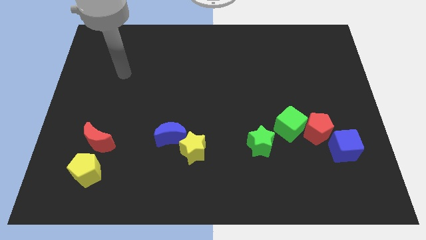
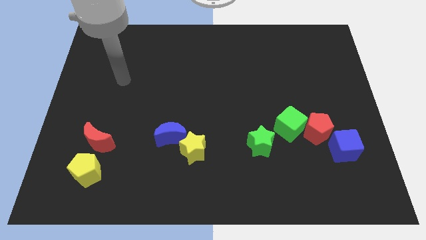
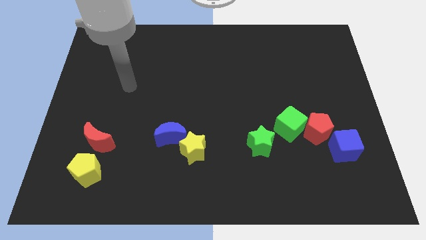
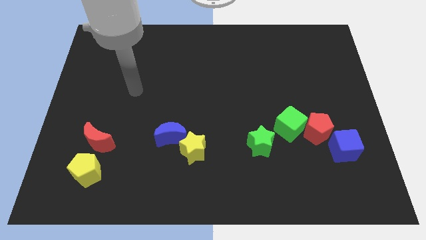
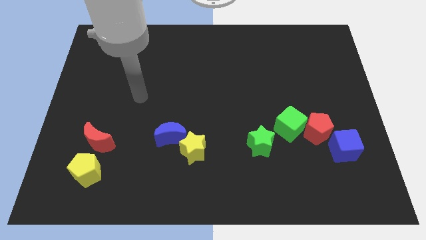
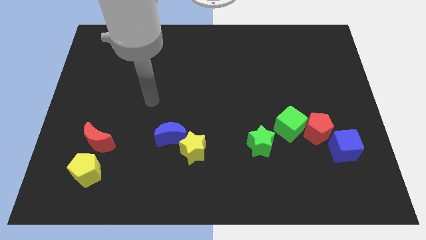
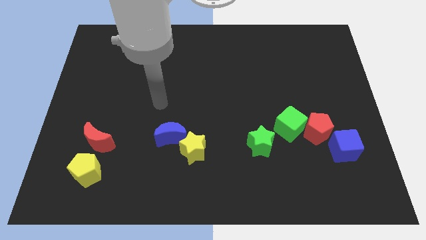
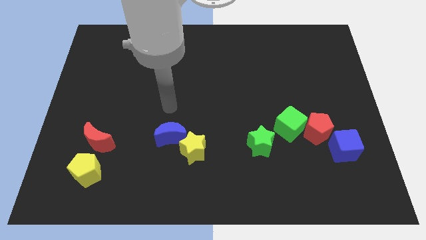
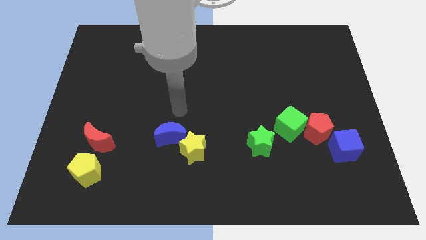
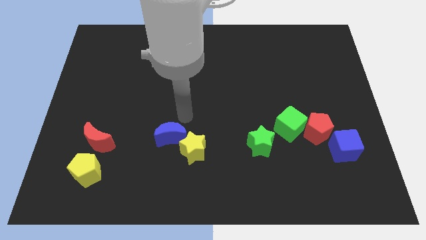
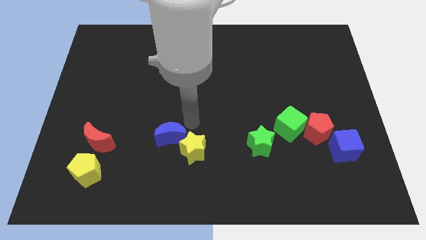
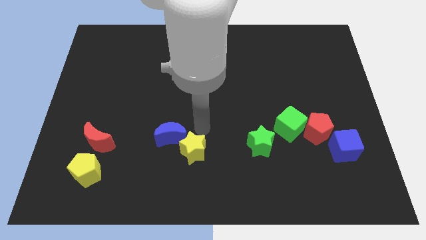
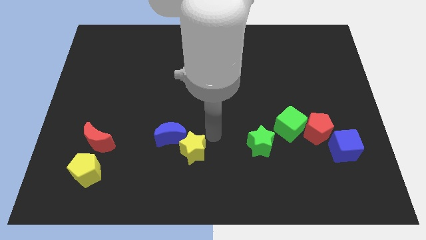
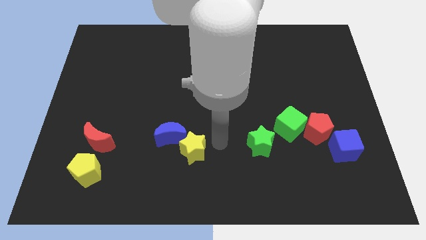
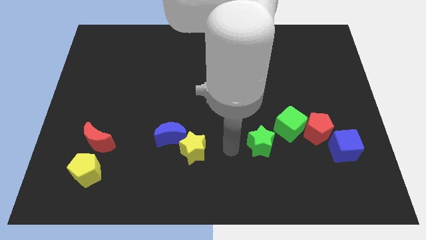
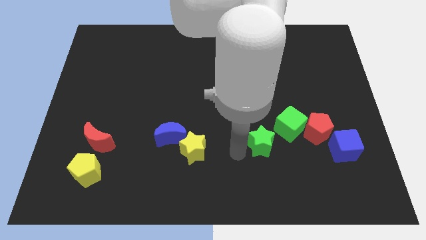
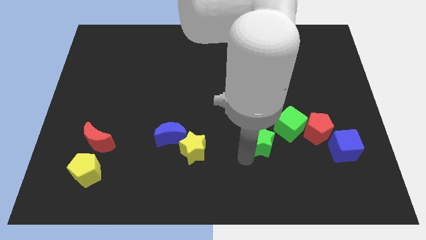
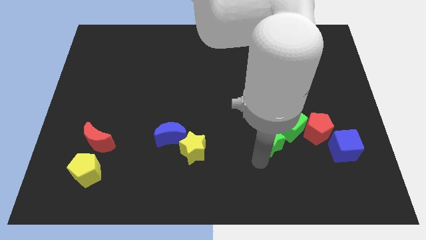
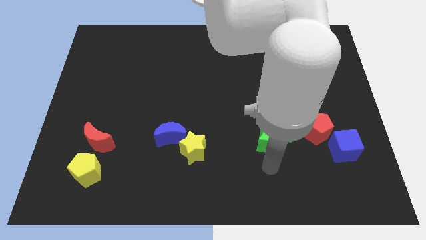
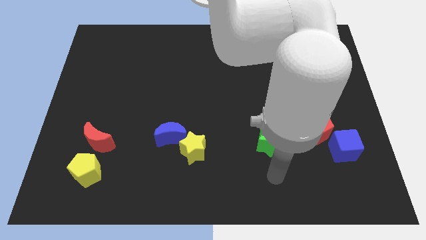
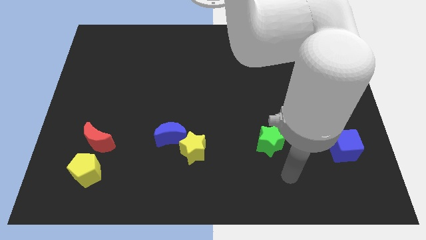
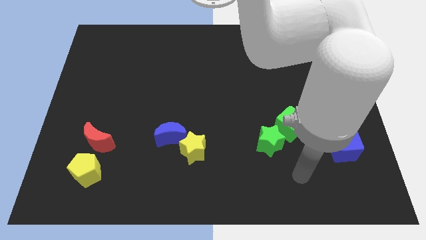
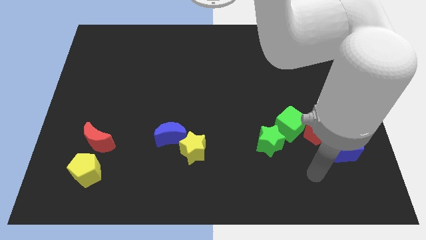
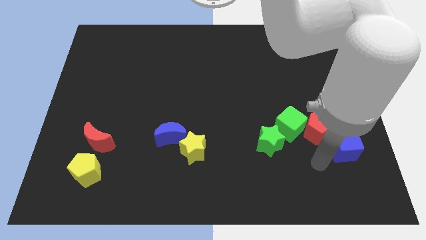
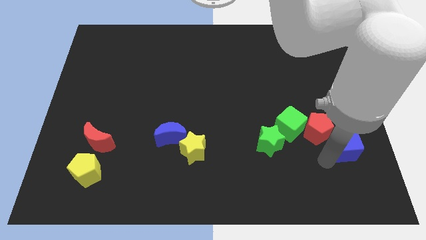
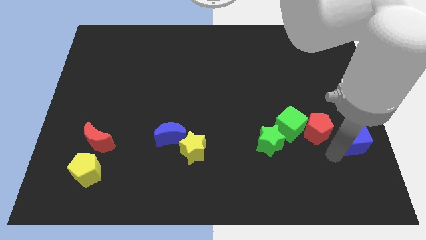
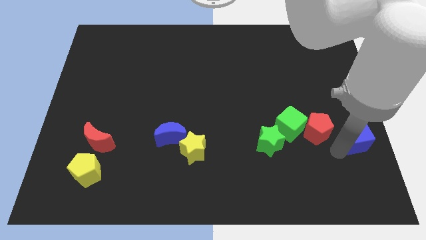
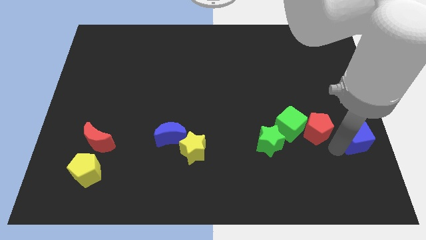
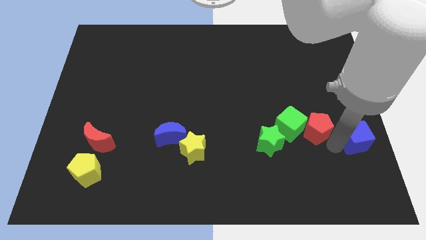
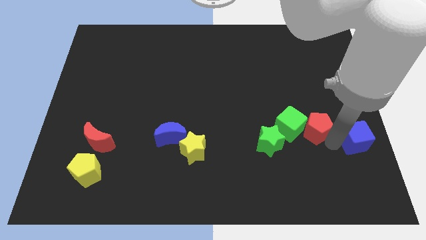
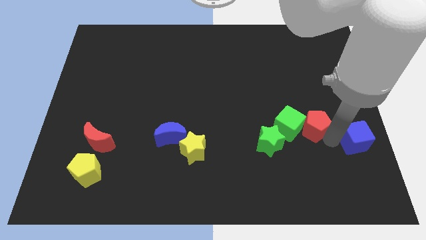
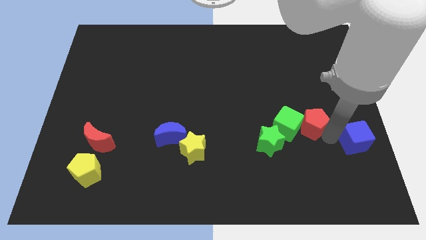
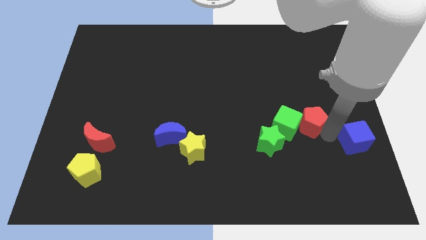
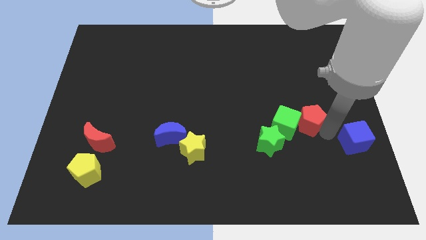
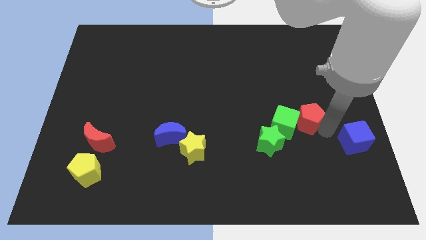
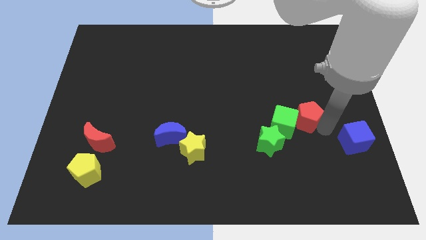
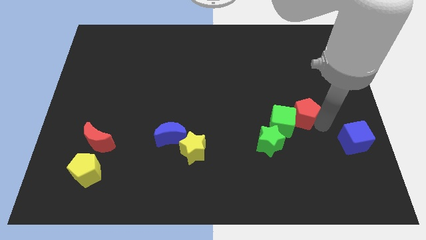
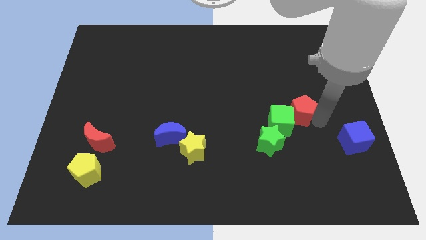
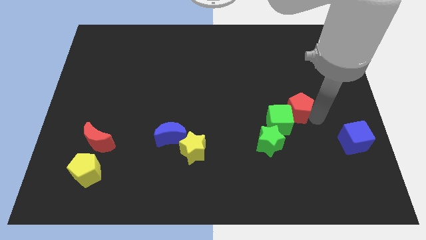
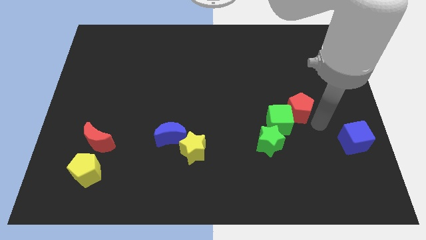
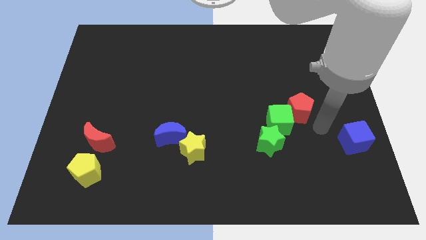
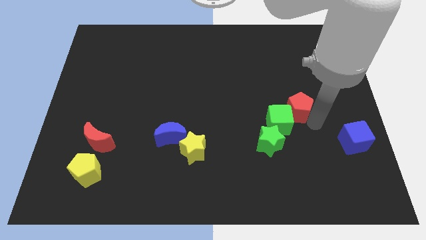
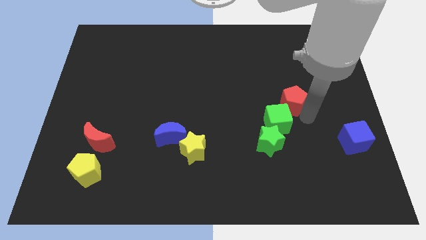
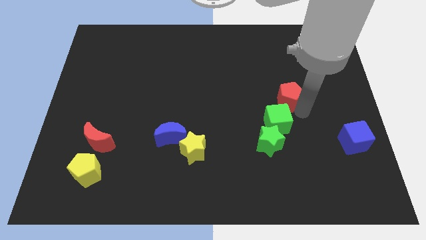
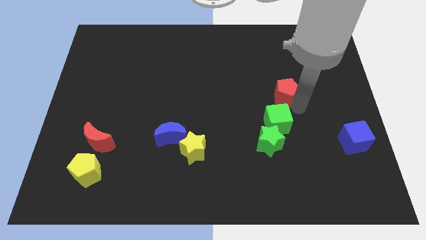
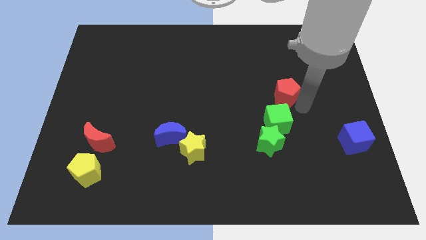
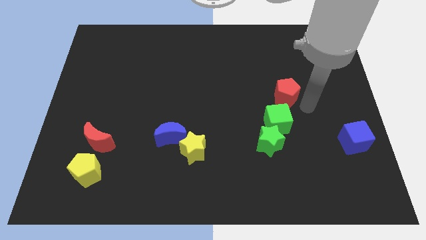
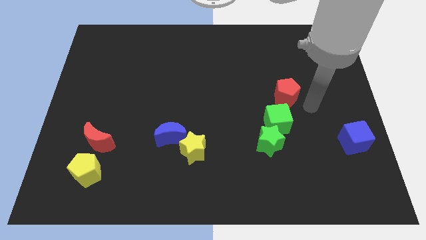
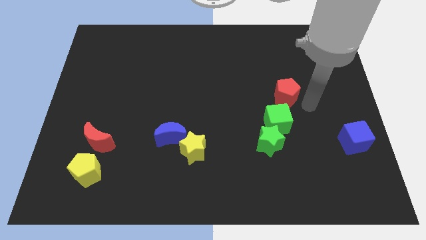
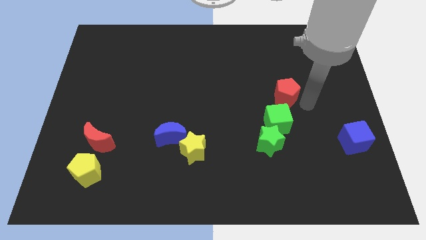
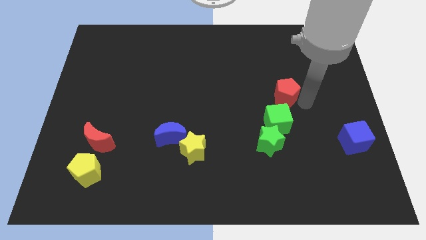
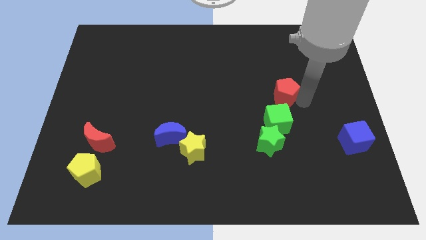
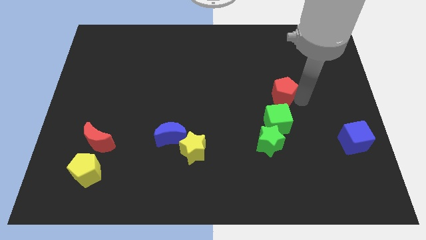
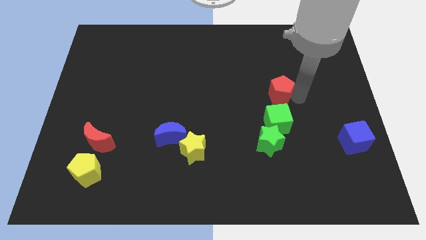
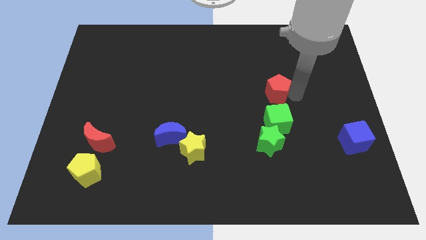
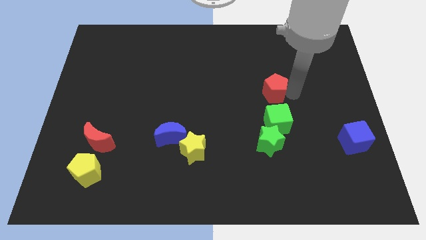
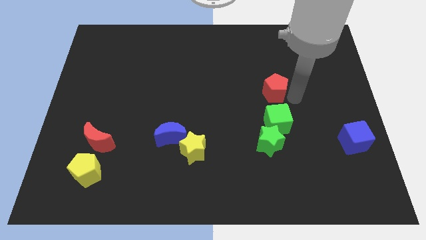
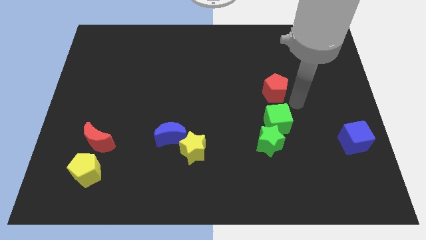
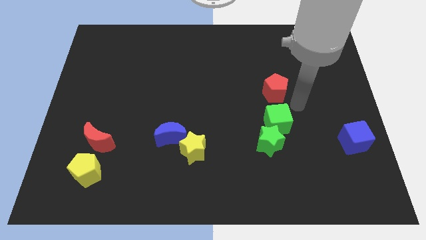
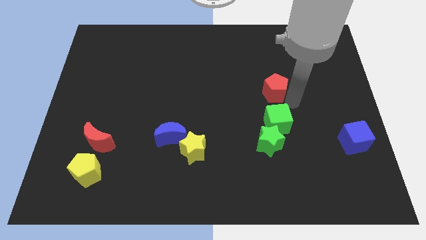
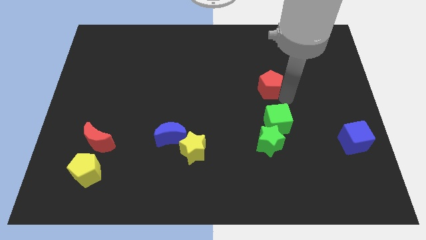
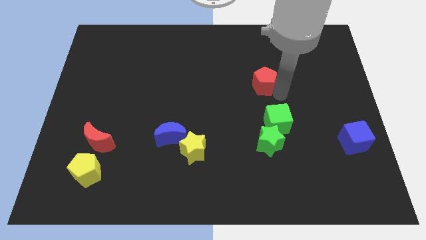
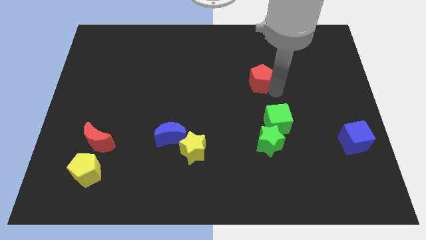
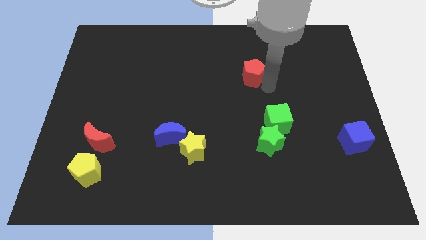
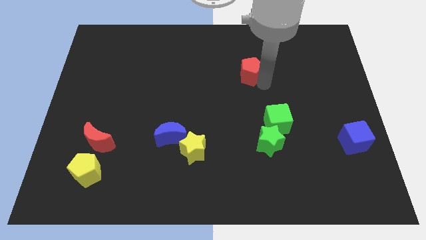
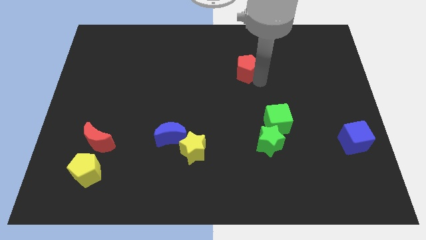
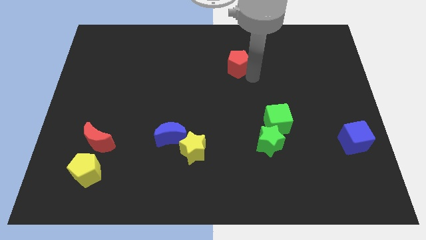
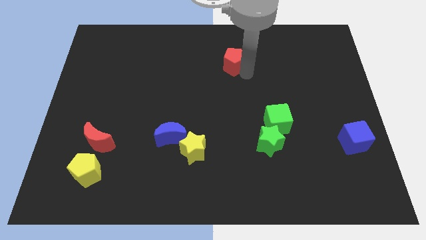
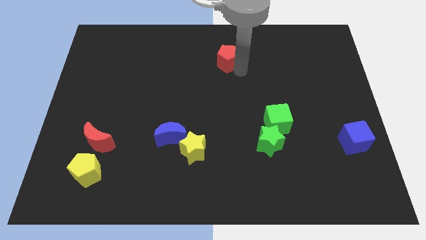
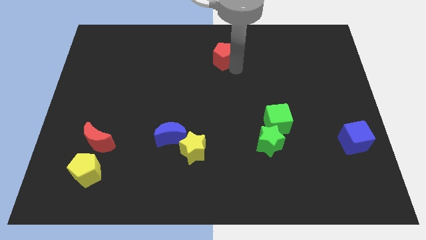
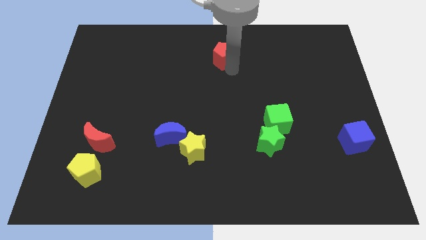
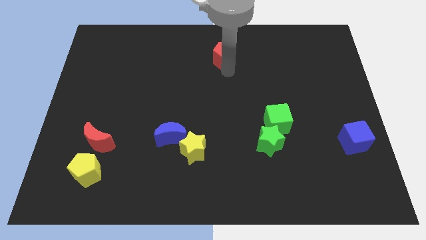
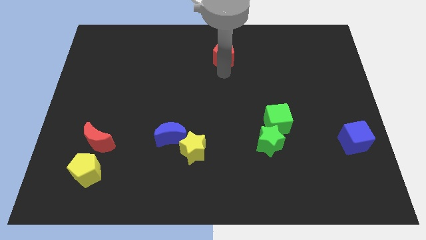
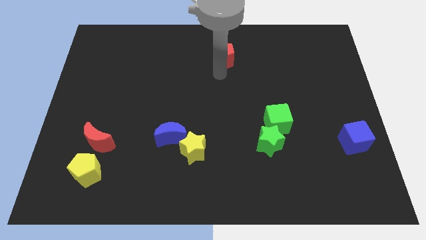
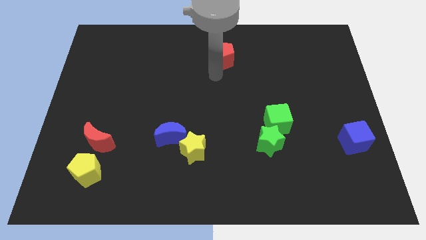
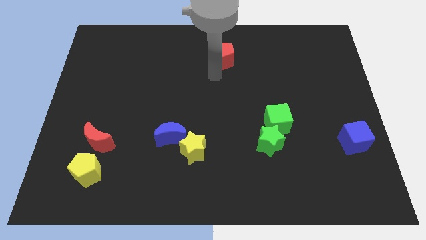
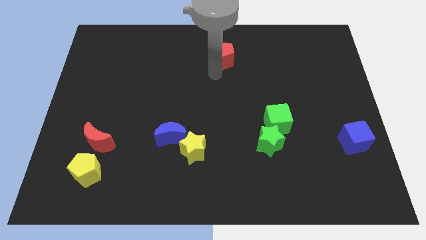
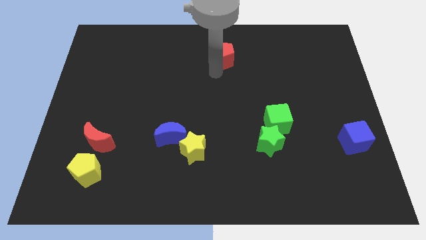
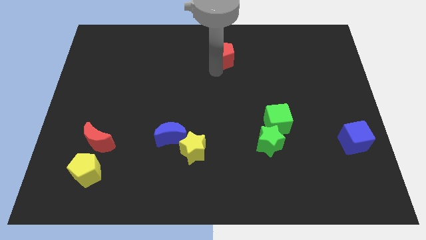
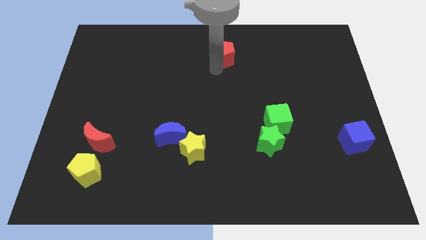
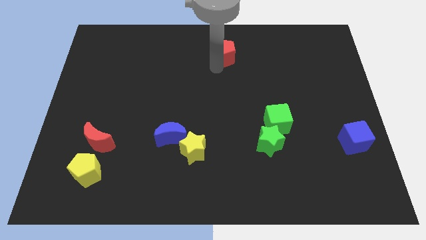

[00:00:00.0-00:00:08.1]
push the red pentagon to the top
